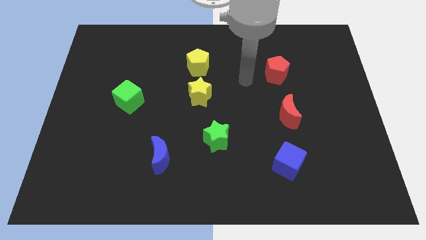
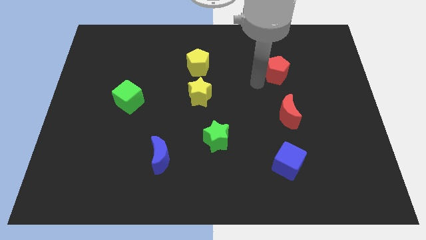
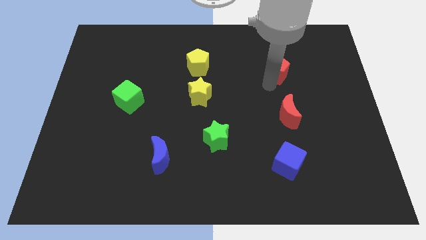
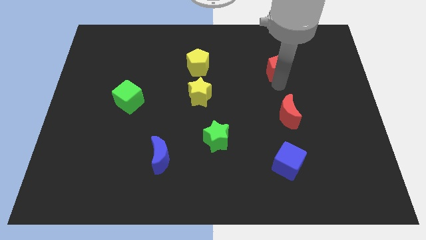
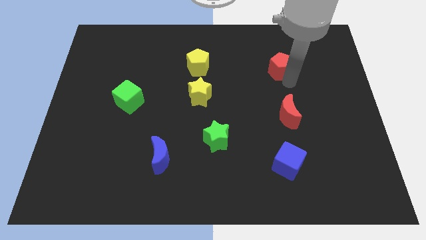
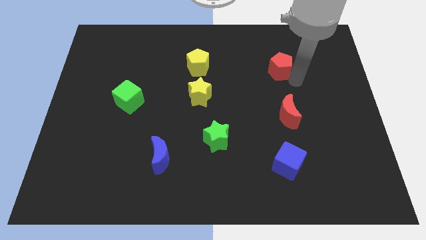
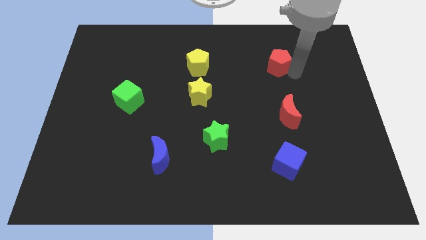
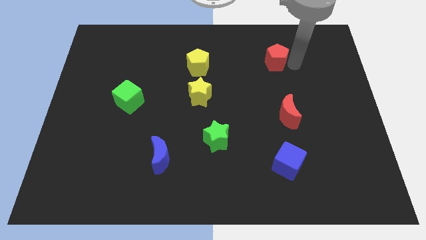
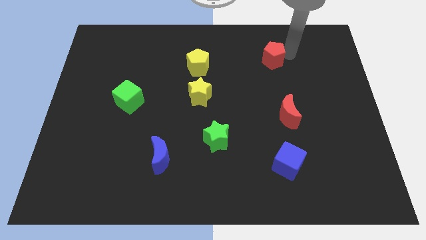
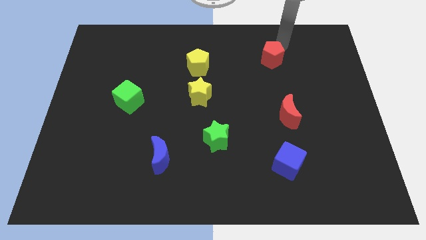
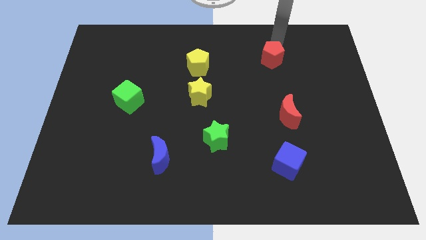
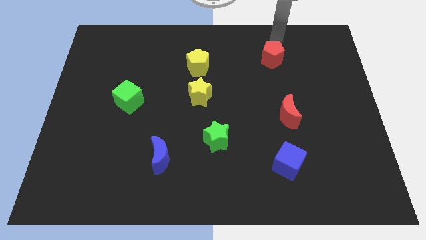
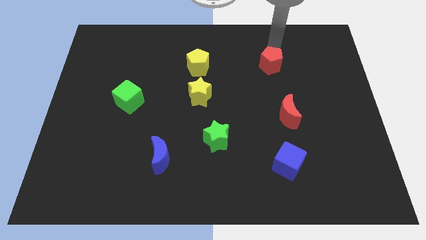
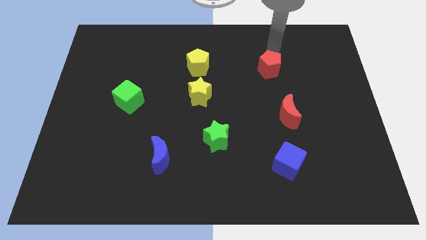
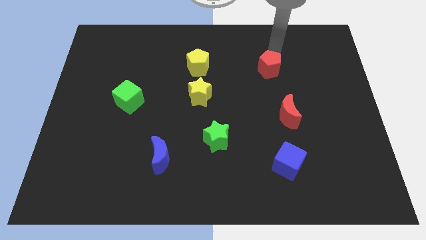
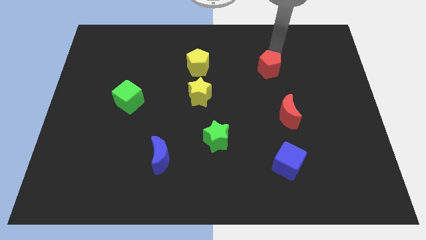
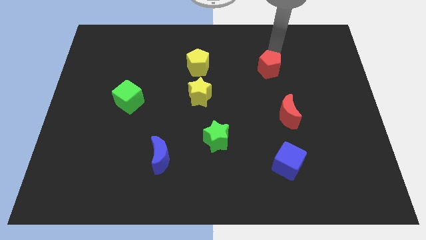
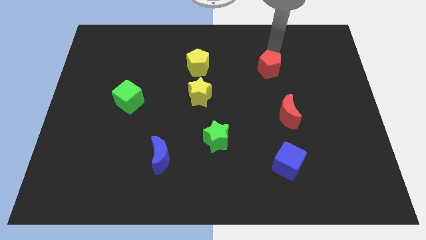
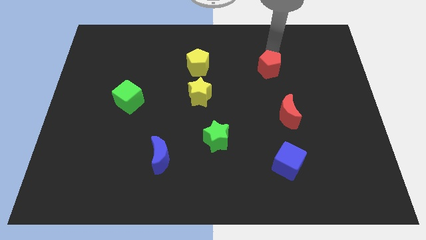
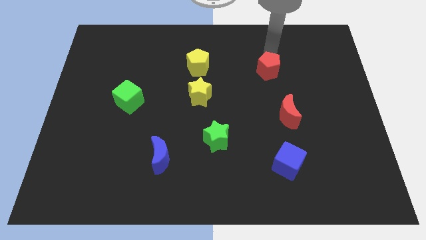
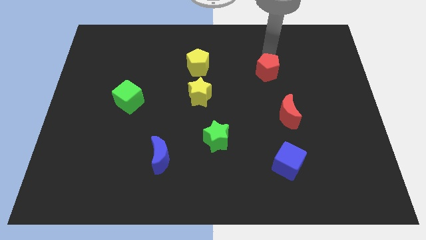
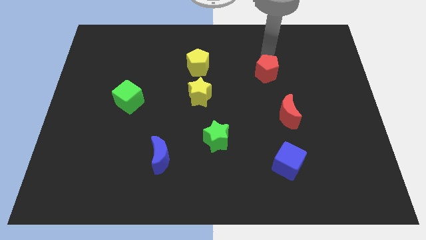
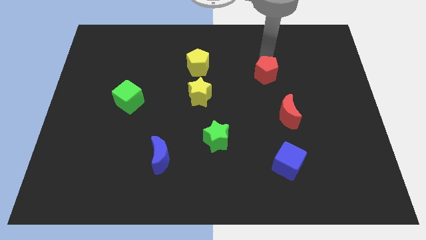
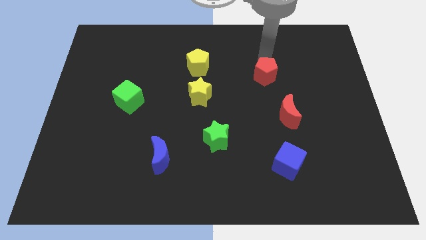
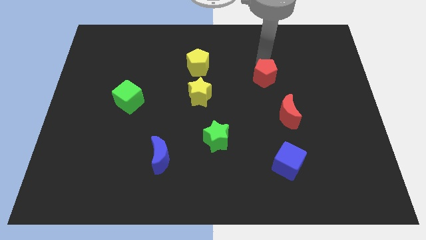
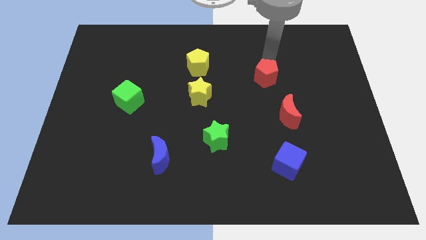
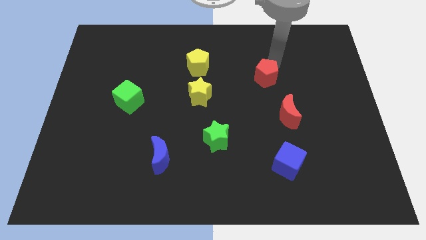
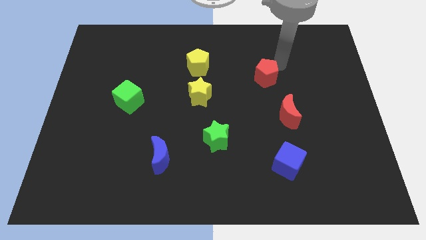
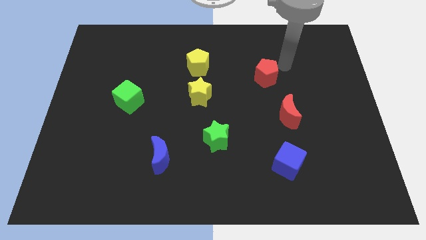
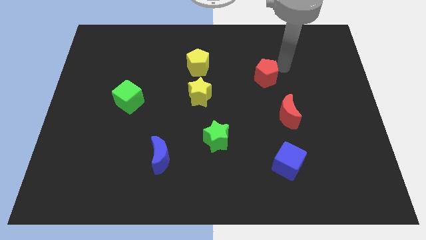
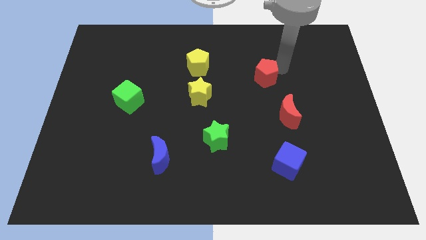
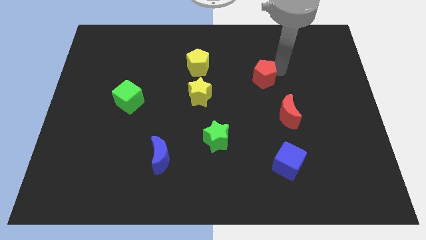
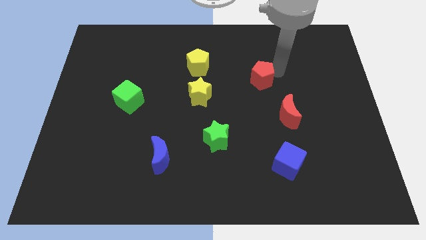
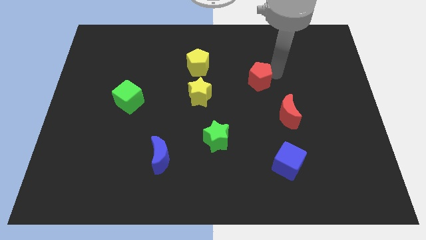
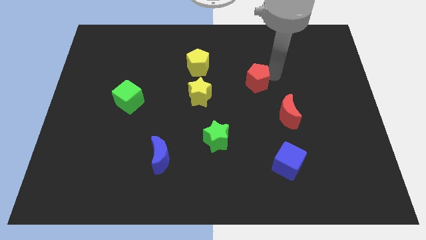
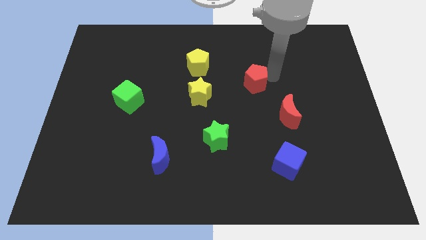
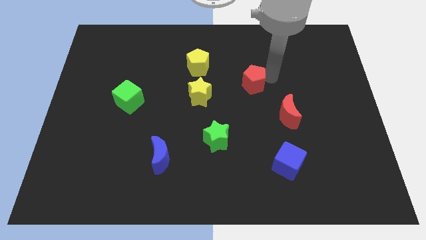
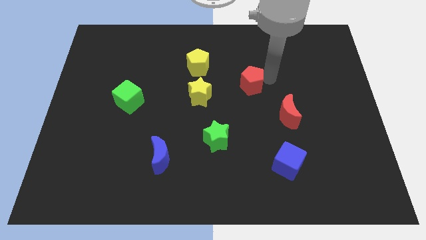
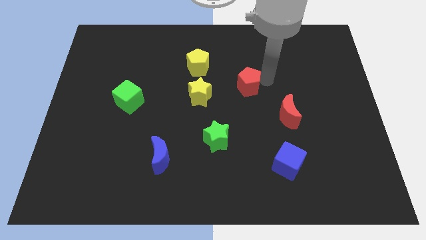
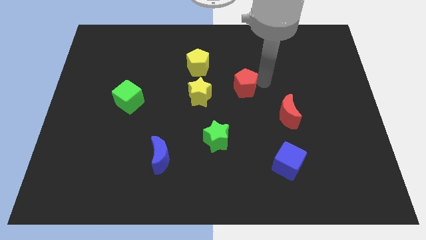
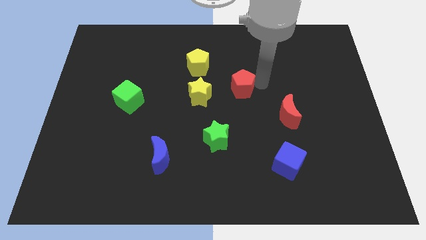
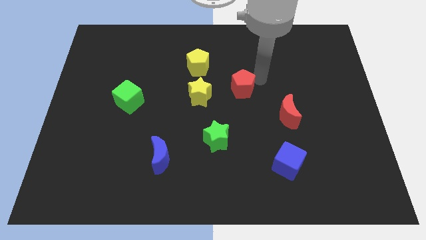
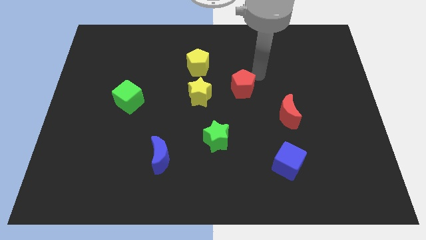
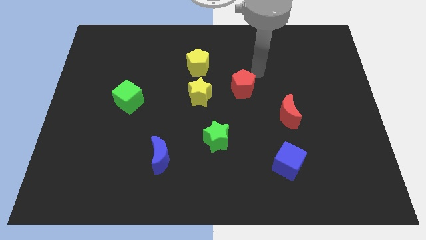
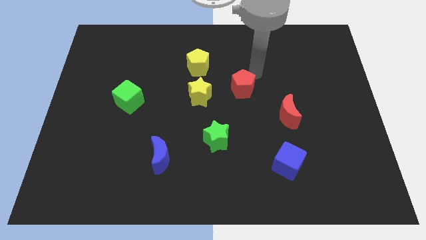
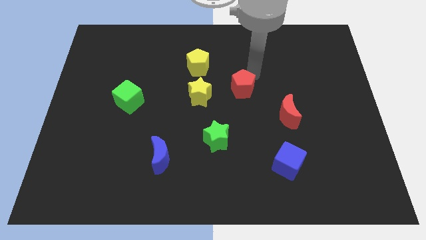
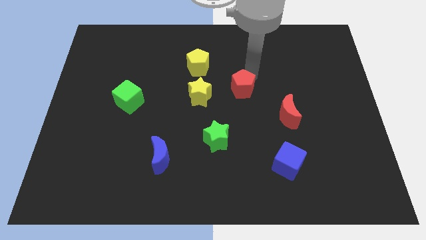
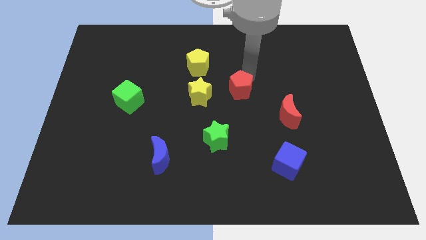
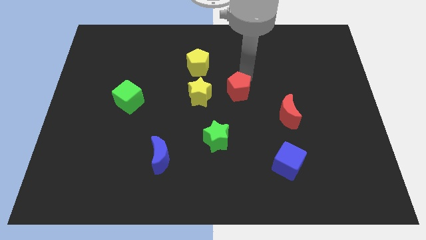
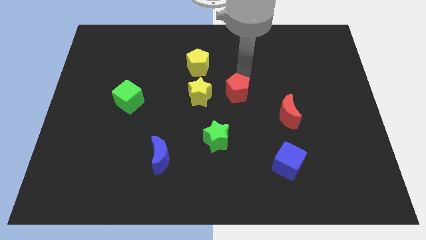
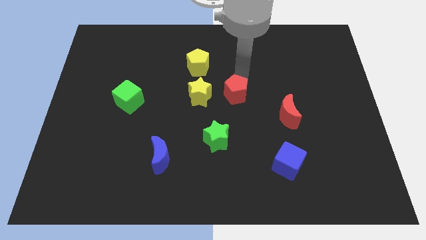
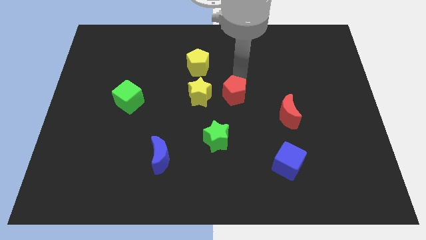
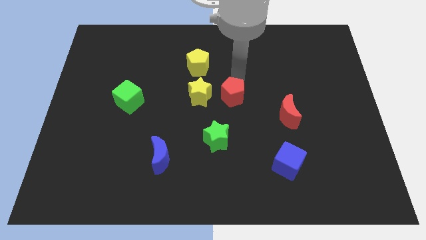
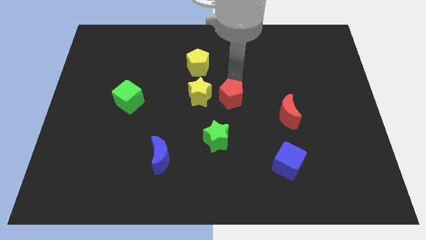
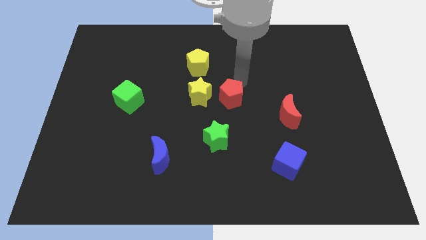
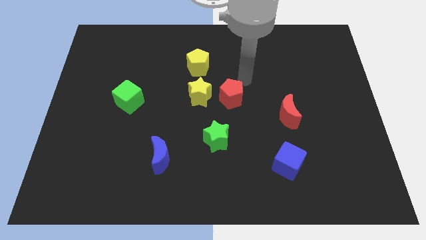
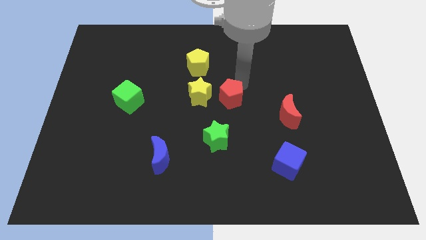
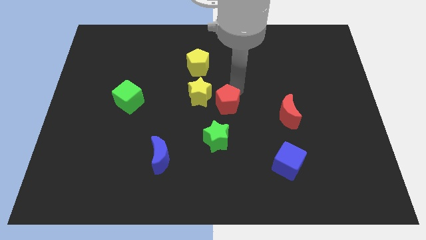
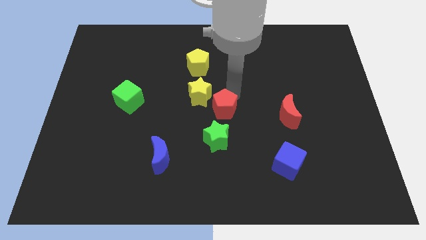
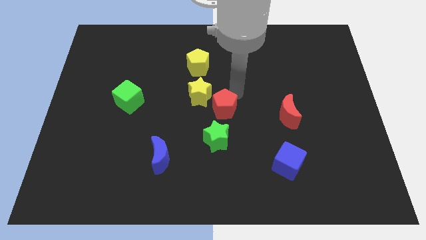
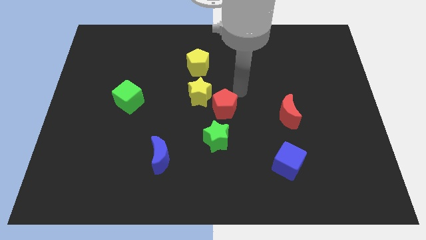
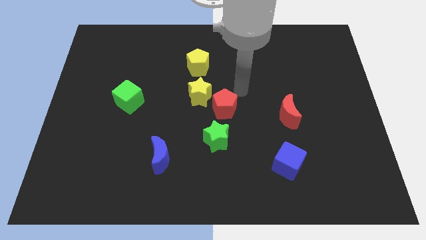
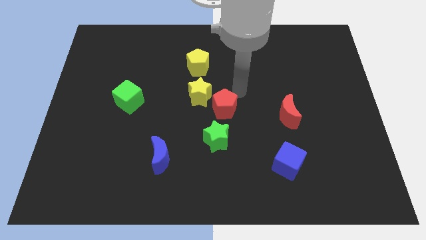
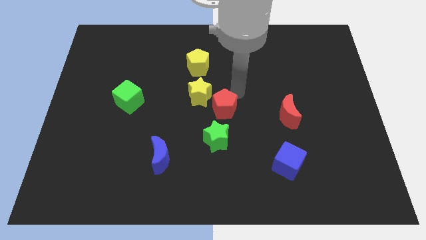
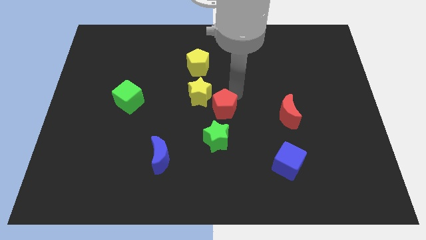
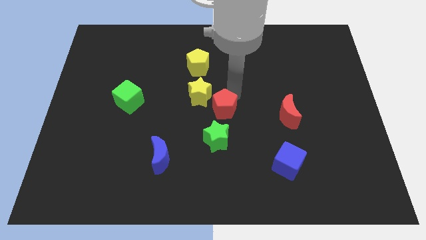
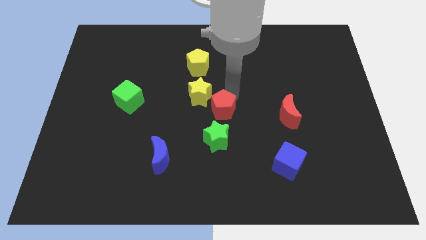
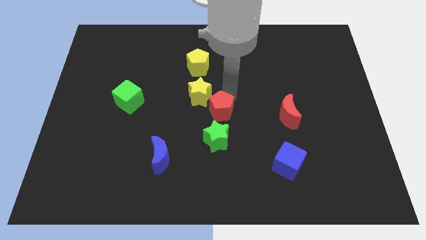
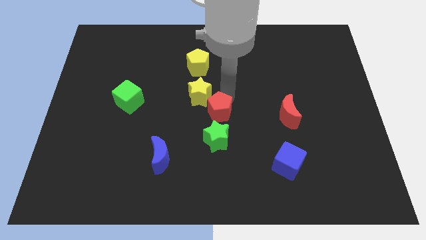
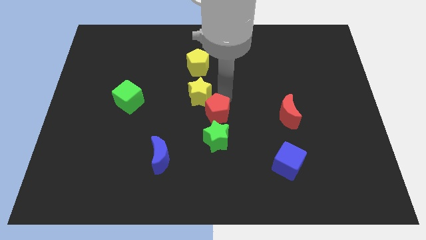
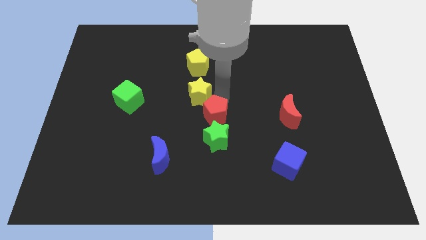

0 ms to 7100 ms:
push the red pentagon downwards and to the left

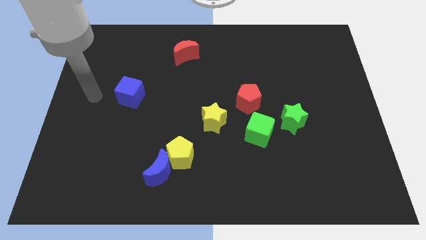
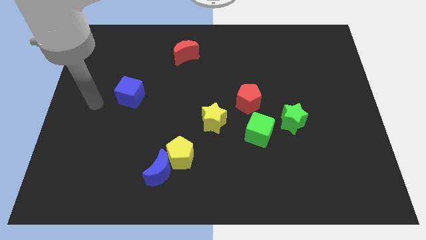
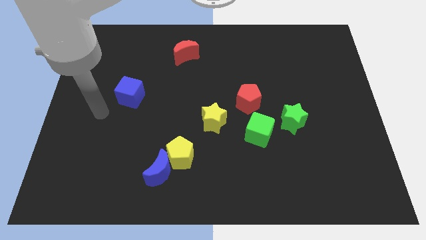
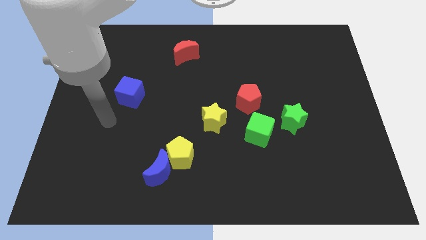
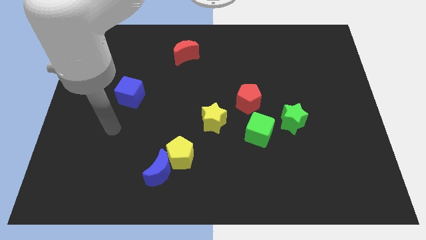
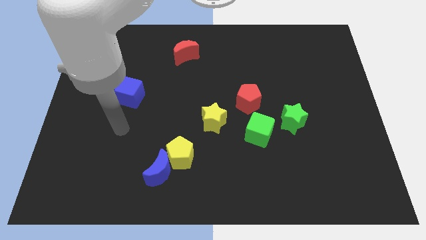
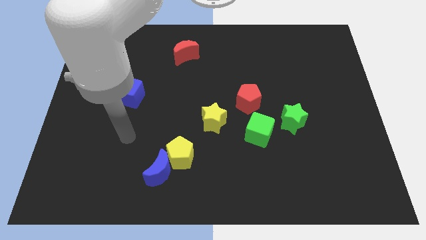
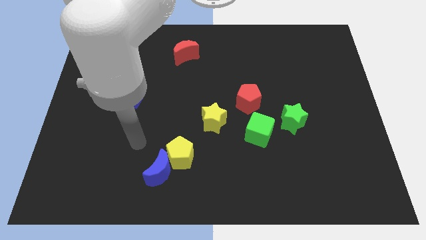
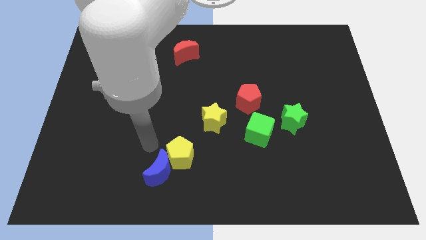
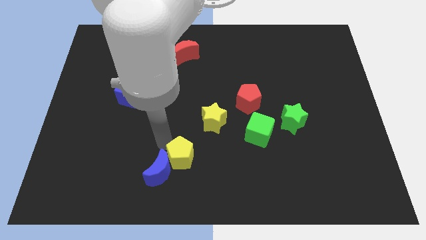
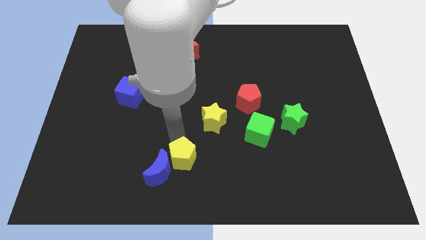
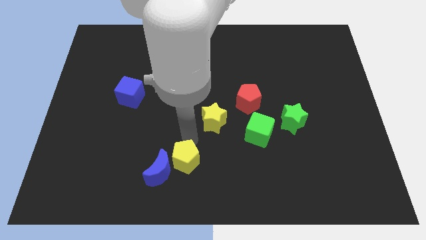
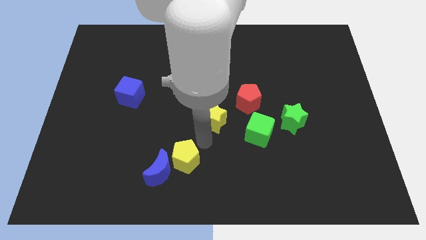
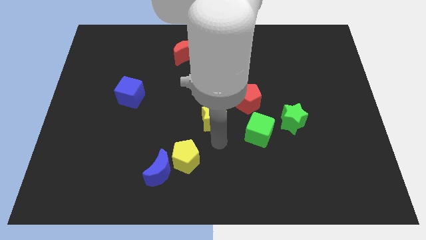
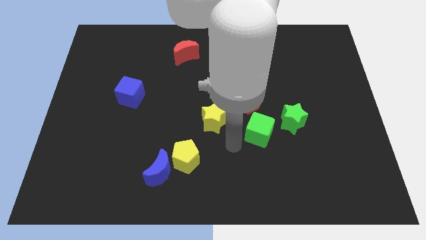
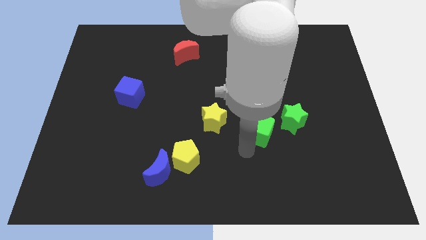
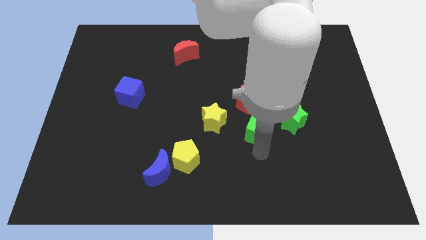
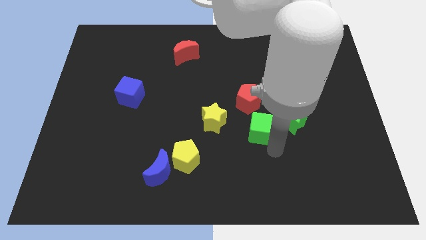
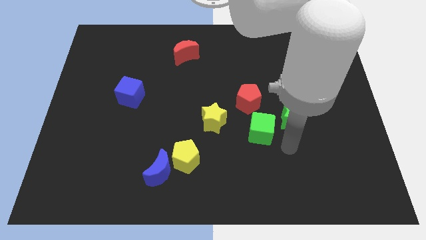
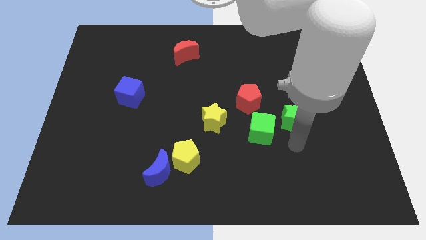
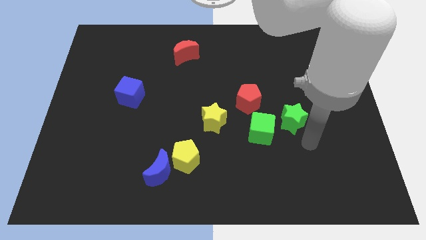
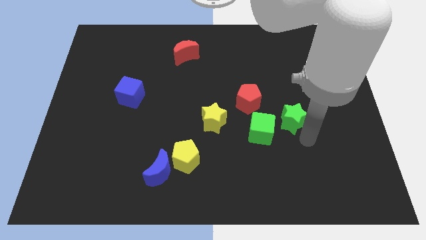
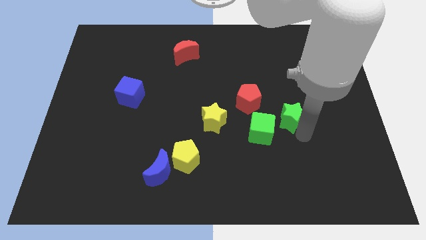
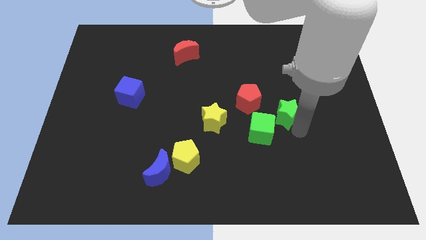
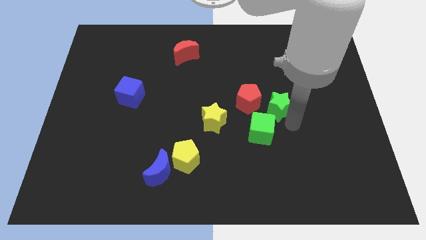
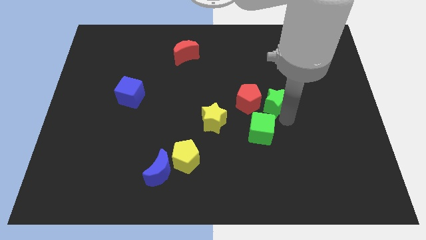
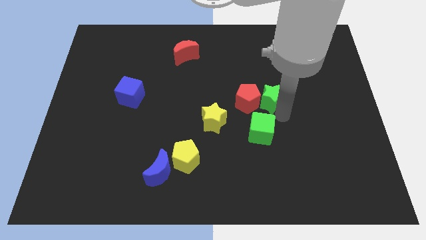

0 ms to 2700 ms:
slightly slide the green star diagonally upwards and left
